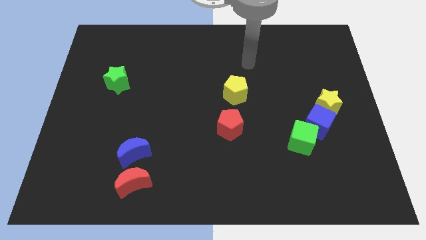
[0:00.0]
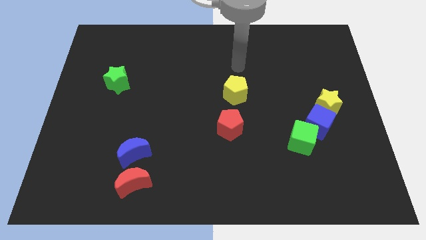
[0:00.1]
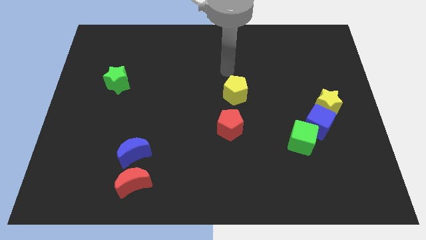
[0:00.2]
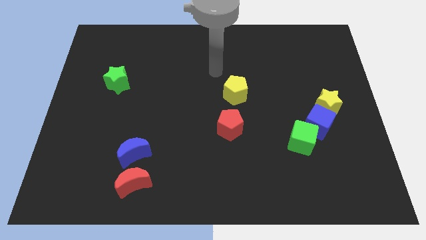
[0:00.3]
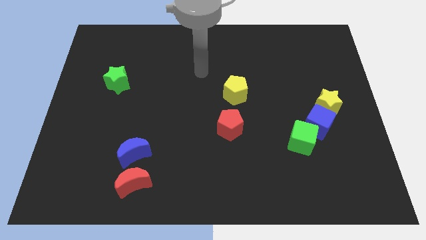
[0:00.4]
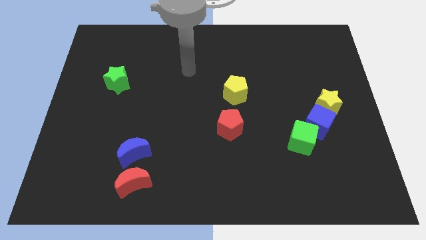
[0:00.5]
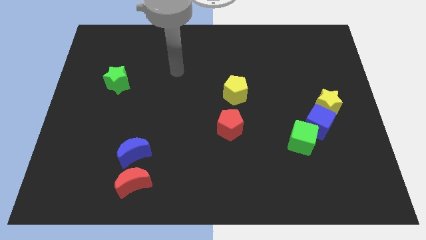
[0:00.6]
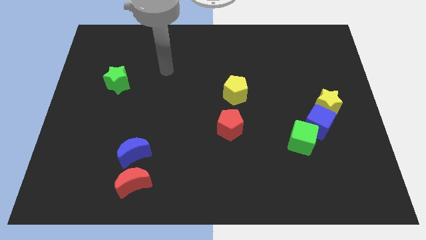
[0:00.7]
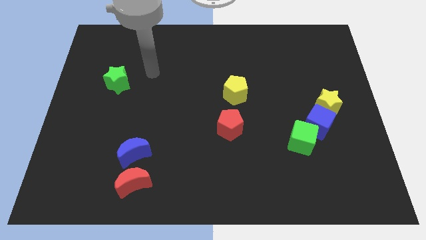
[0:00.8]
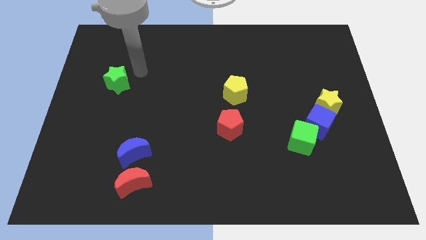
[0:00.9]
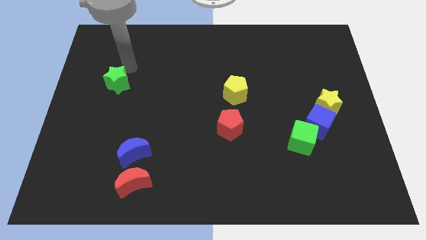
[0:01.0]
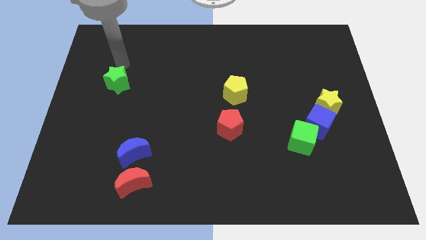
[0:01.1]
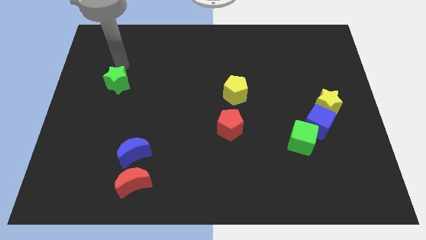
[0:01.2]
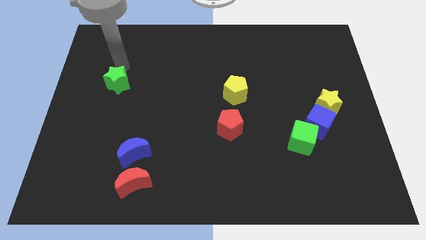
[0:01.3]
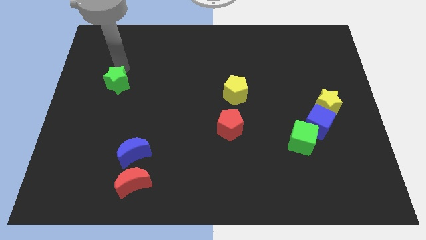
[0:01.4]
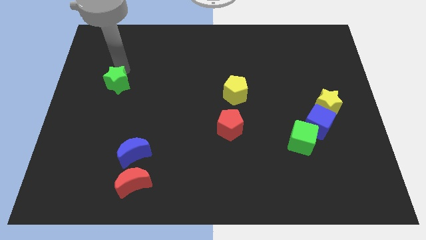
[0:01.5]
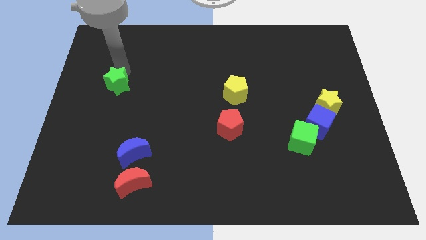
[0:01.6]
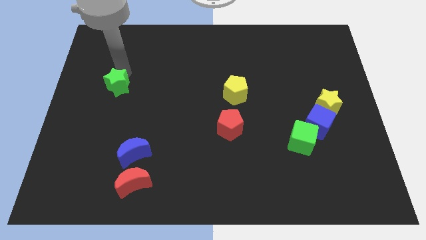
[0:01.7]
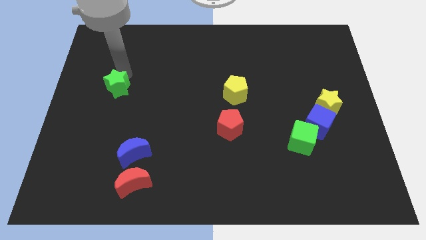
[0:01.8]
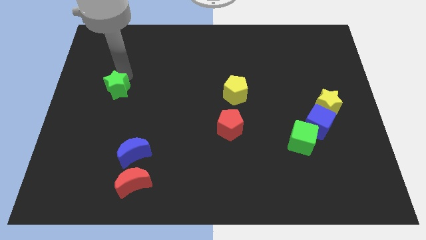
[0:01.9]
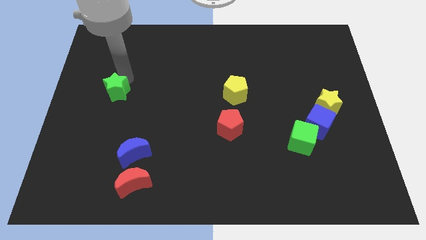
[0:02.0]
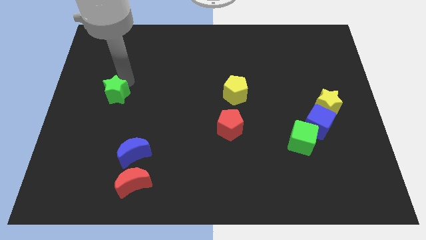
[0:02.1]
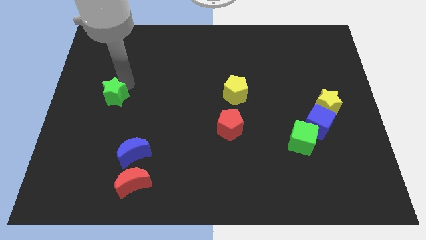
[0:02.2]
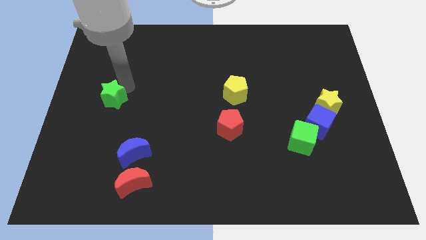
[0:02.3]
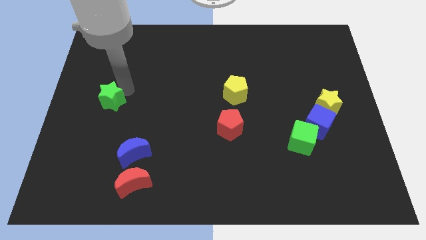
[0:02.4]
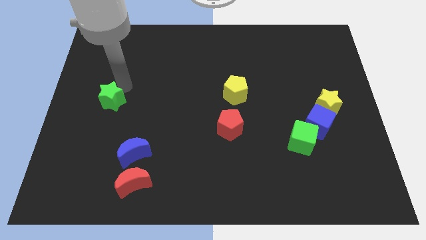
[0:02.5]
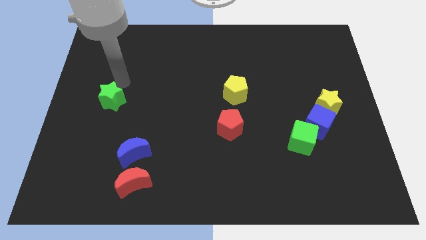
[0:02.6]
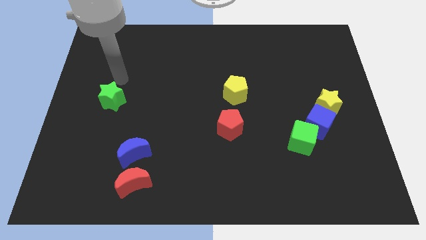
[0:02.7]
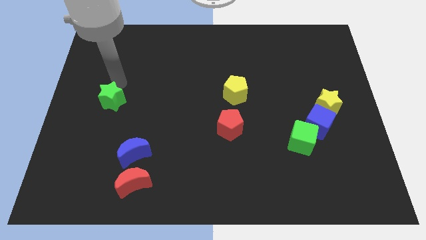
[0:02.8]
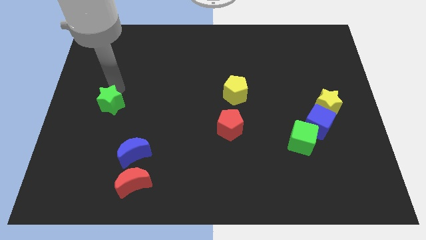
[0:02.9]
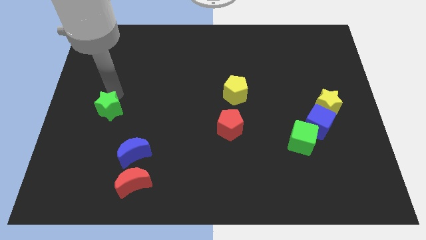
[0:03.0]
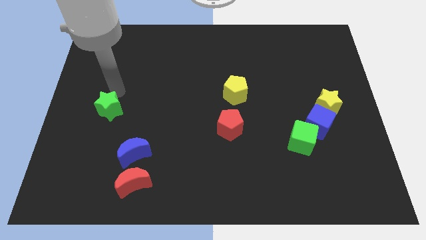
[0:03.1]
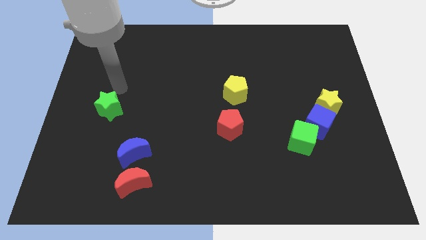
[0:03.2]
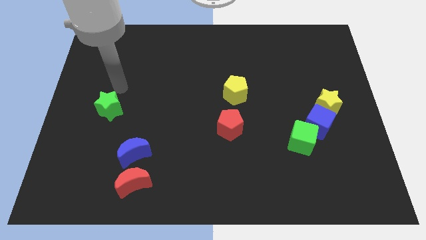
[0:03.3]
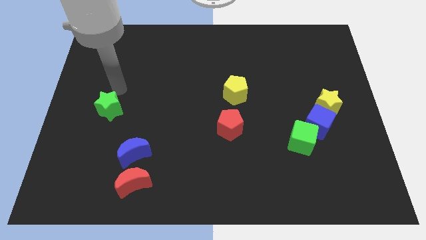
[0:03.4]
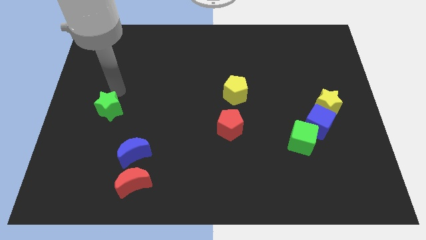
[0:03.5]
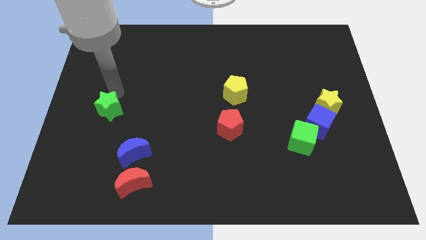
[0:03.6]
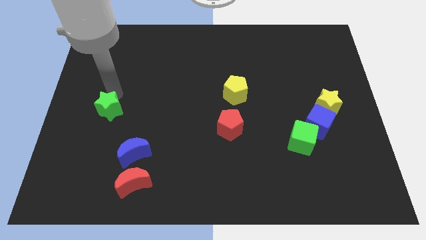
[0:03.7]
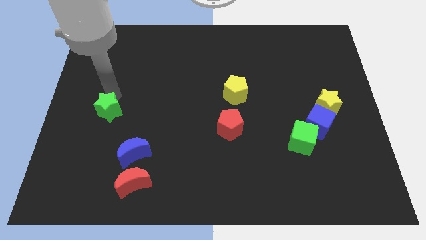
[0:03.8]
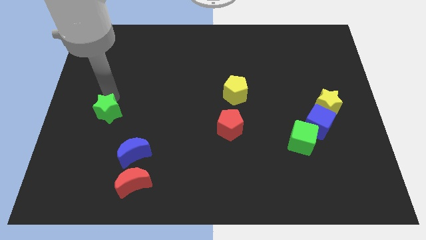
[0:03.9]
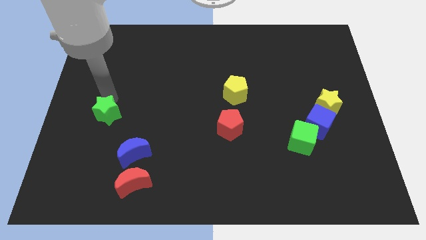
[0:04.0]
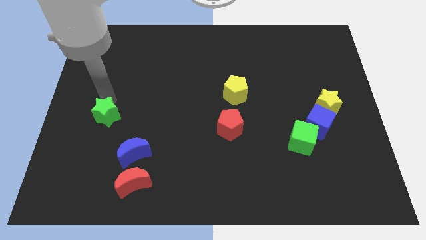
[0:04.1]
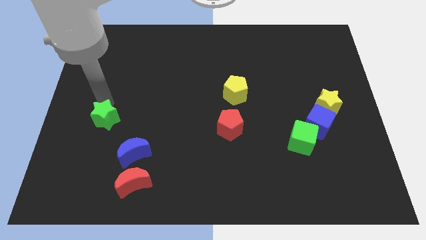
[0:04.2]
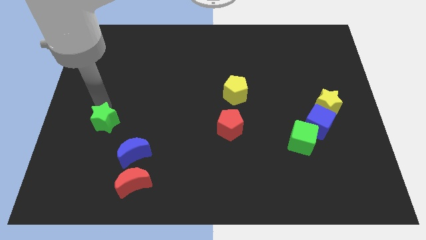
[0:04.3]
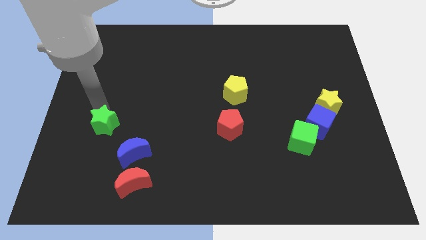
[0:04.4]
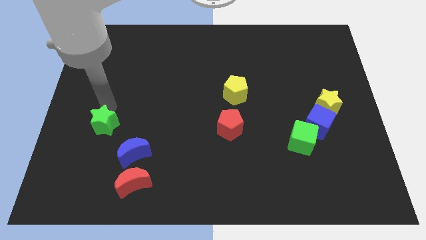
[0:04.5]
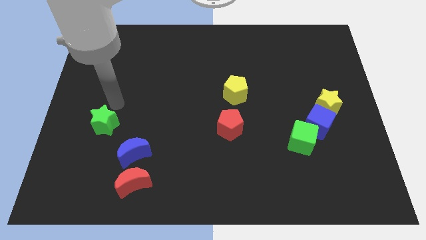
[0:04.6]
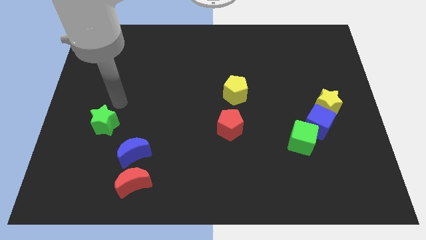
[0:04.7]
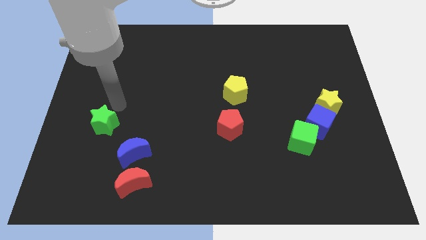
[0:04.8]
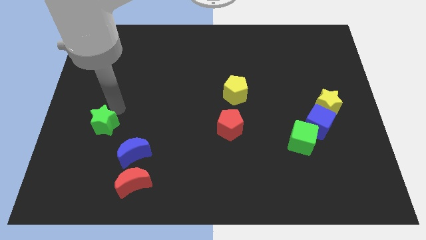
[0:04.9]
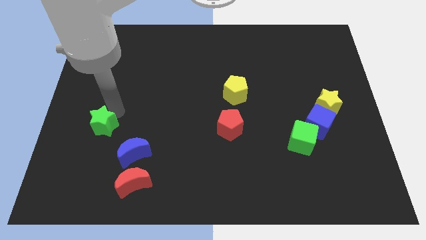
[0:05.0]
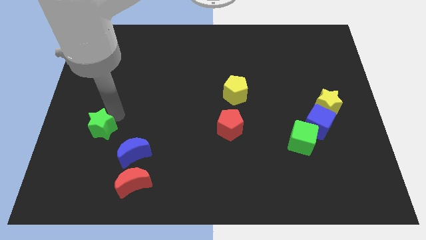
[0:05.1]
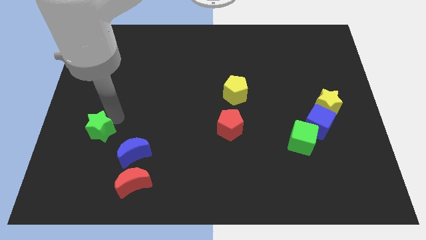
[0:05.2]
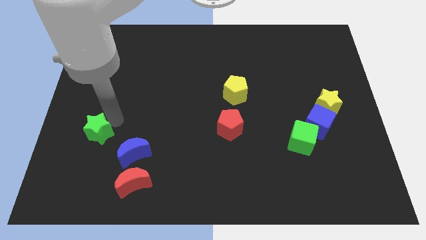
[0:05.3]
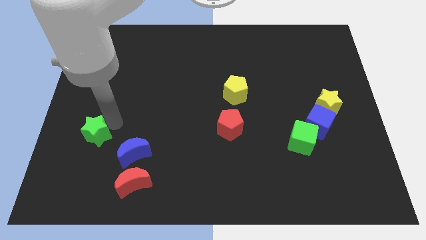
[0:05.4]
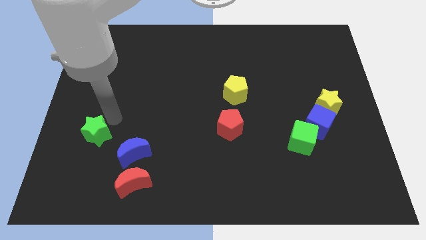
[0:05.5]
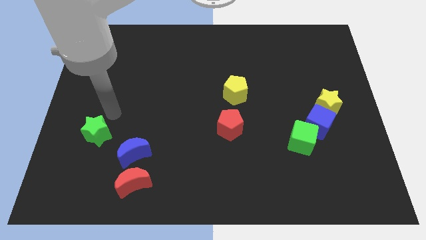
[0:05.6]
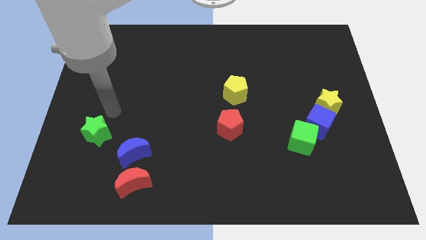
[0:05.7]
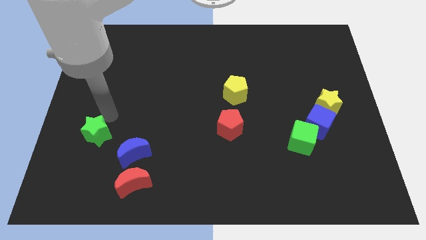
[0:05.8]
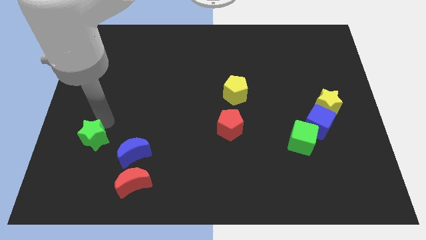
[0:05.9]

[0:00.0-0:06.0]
put the green star just left of the blue moon

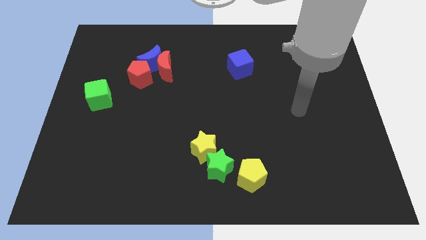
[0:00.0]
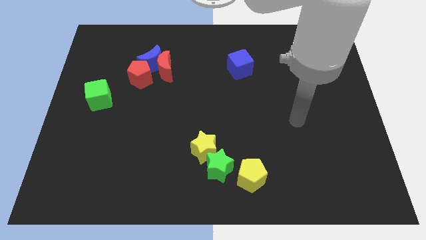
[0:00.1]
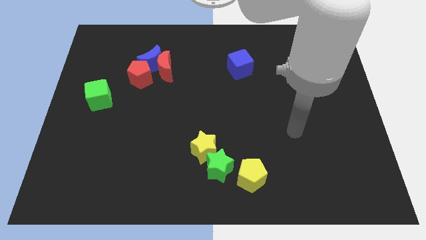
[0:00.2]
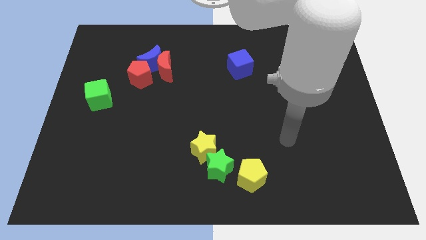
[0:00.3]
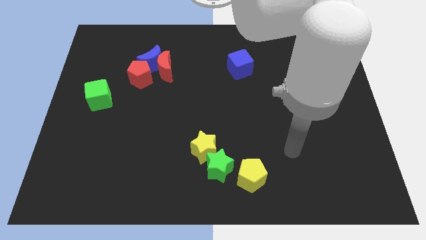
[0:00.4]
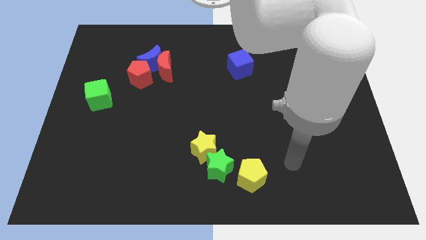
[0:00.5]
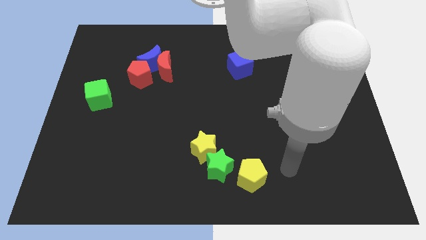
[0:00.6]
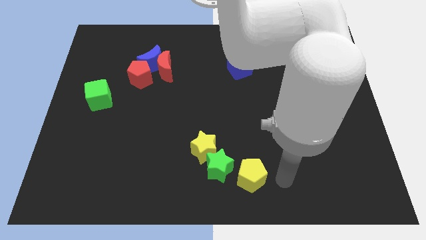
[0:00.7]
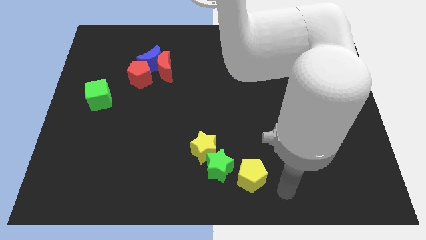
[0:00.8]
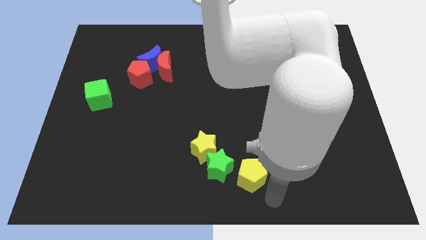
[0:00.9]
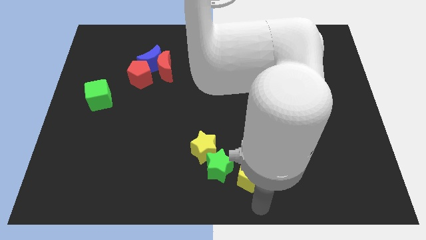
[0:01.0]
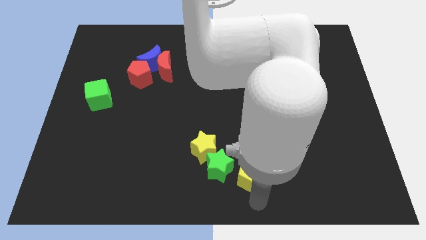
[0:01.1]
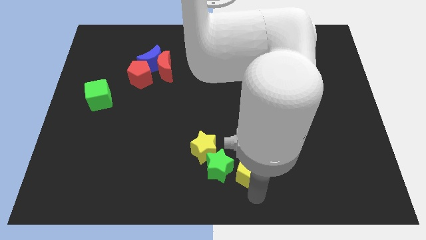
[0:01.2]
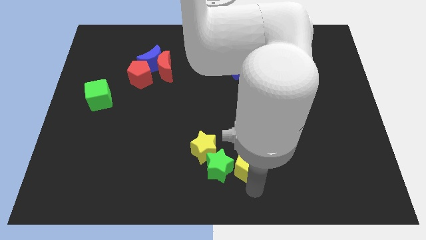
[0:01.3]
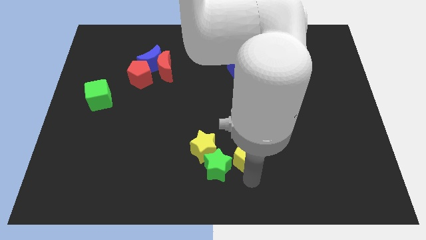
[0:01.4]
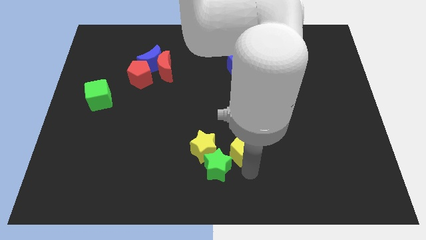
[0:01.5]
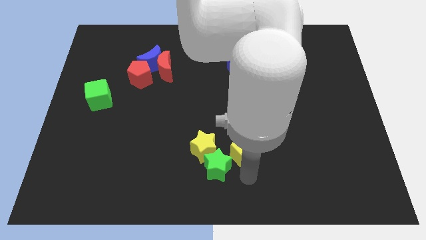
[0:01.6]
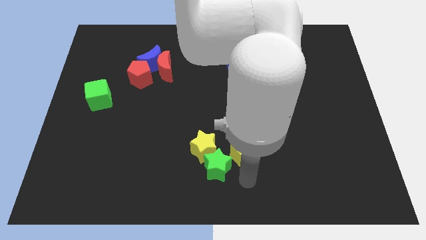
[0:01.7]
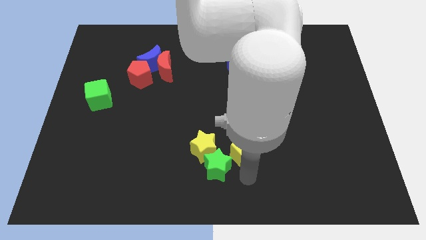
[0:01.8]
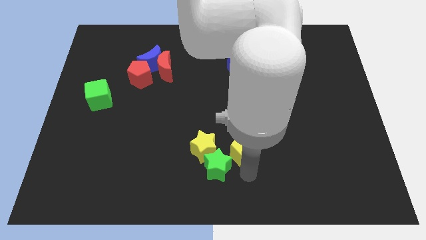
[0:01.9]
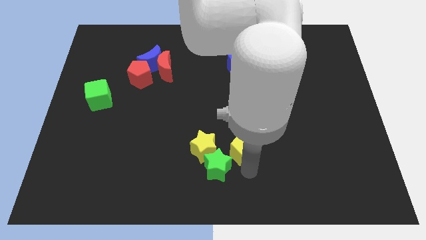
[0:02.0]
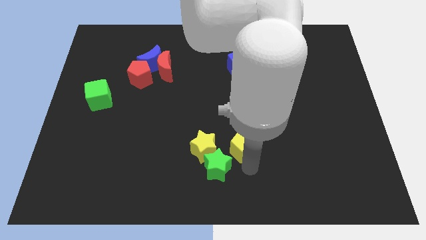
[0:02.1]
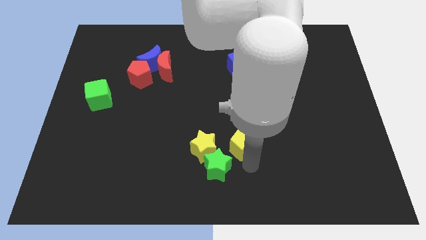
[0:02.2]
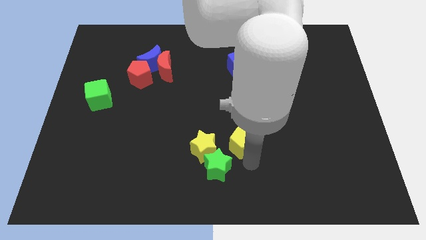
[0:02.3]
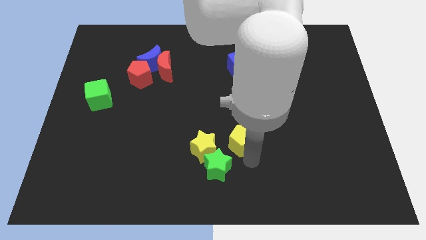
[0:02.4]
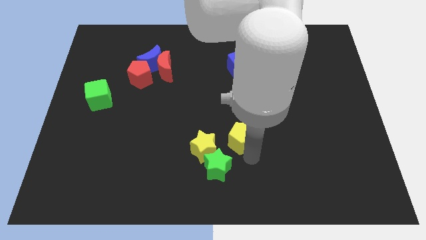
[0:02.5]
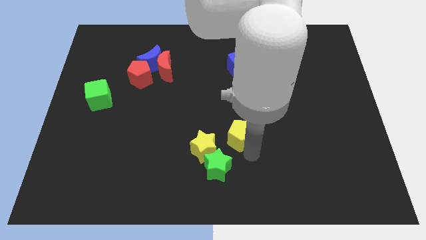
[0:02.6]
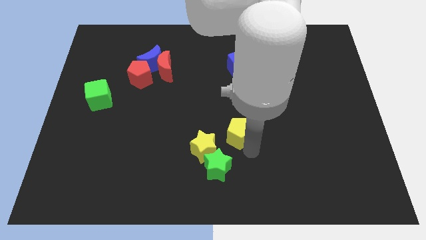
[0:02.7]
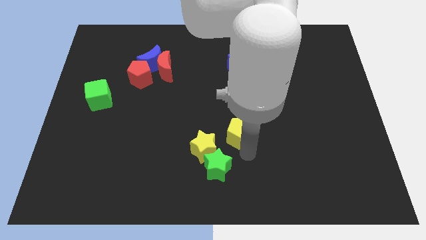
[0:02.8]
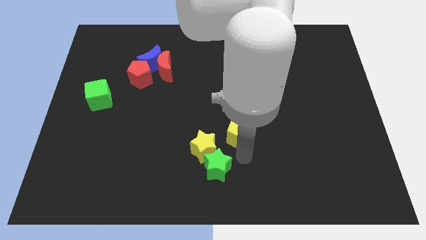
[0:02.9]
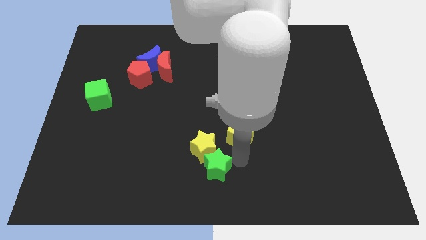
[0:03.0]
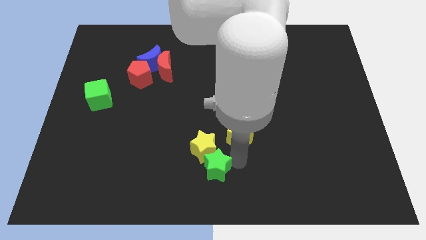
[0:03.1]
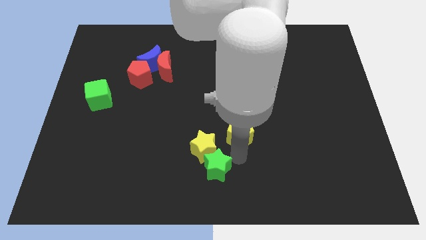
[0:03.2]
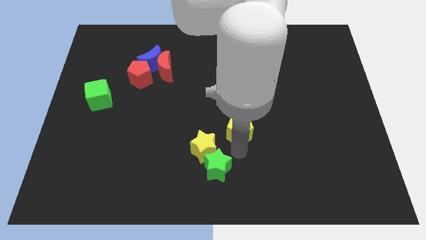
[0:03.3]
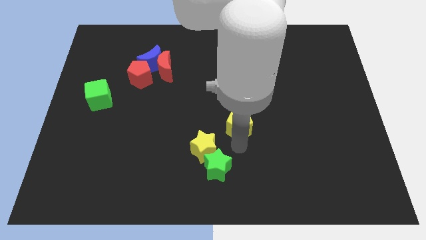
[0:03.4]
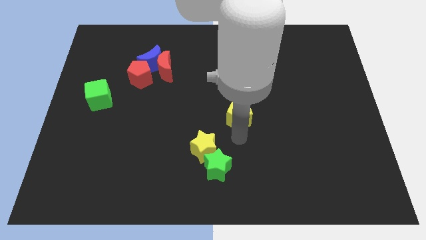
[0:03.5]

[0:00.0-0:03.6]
slide the yellow pentagon to the bottom side of the blue cube
